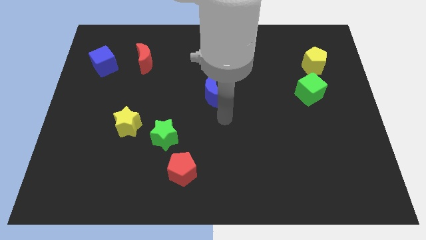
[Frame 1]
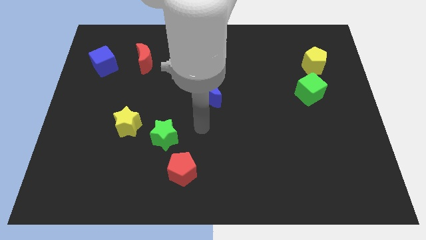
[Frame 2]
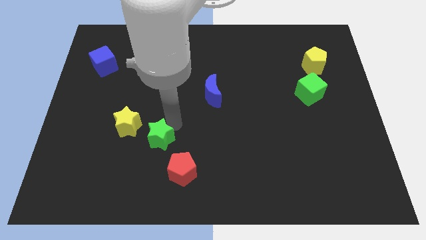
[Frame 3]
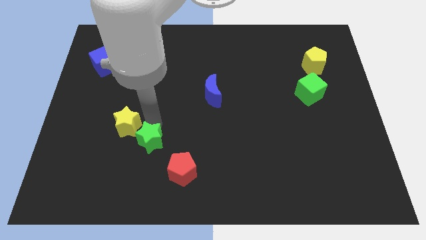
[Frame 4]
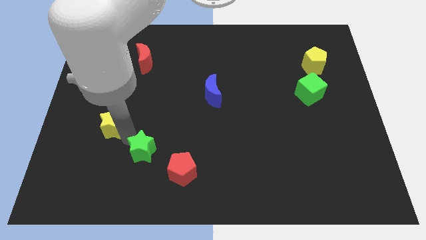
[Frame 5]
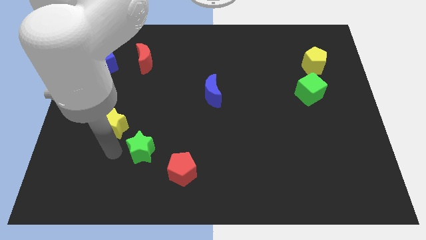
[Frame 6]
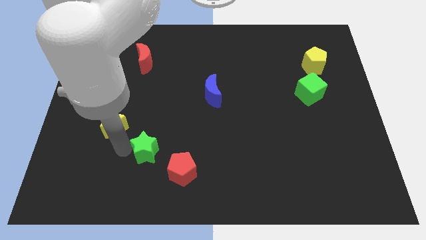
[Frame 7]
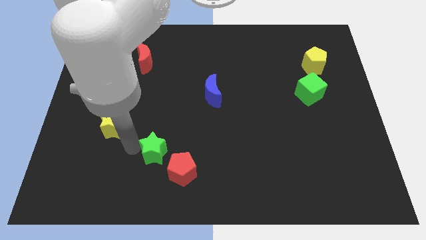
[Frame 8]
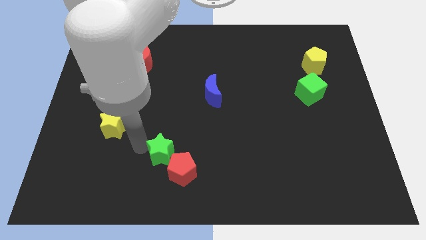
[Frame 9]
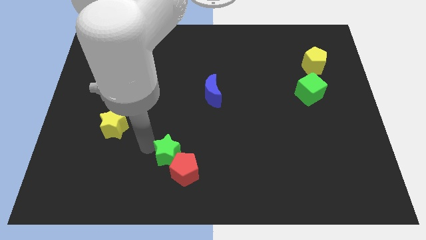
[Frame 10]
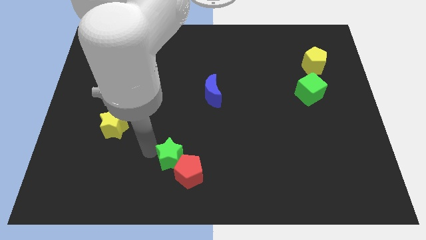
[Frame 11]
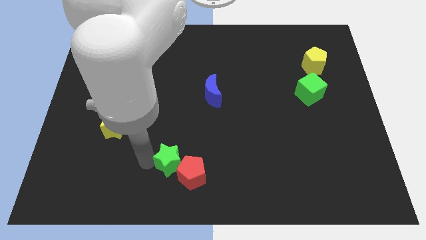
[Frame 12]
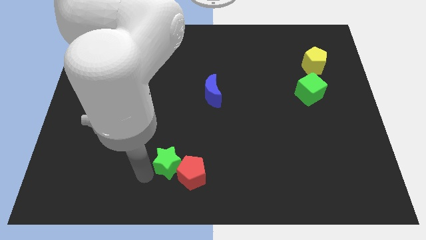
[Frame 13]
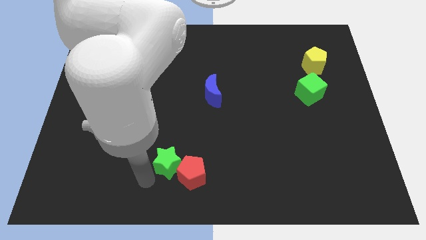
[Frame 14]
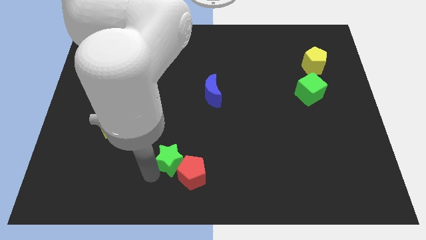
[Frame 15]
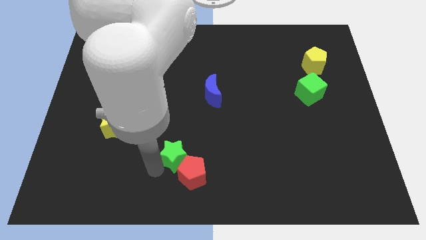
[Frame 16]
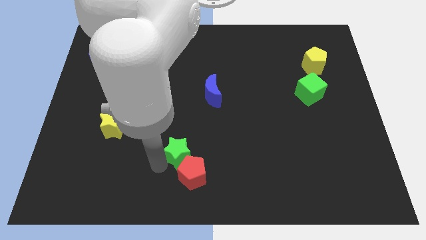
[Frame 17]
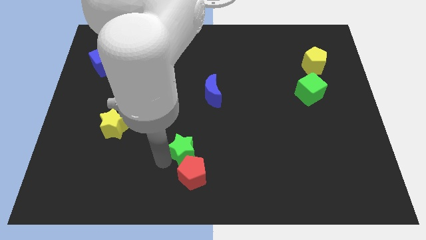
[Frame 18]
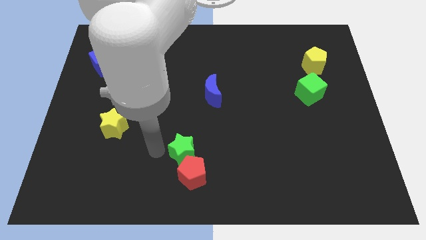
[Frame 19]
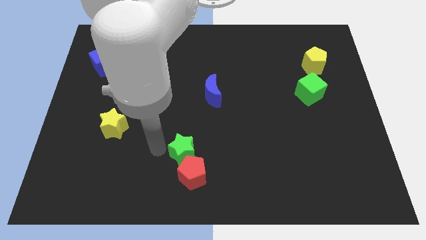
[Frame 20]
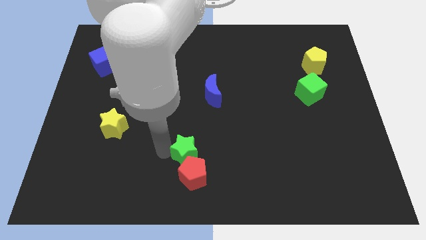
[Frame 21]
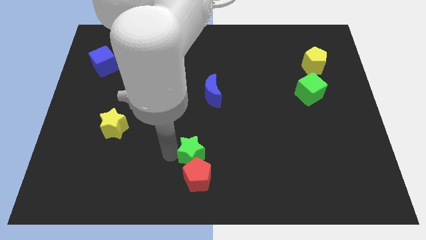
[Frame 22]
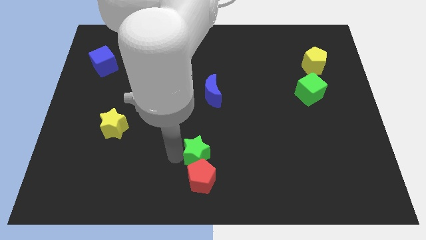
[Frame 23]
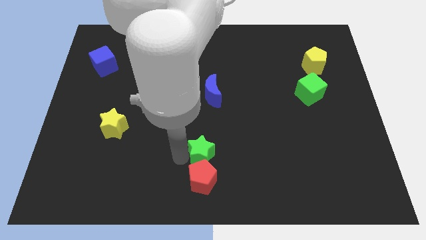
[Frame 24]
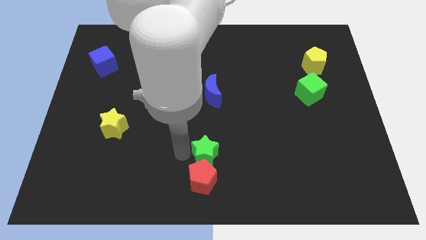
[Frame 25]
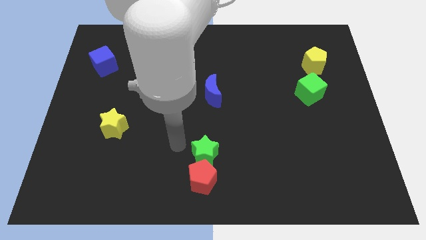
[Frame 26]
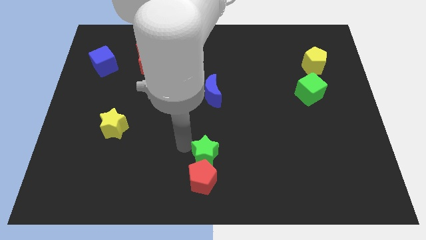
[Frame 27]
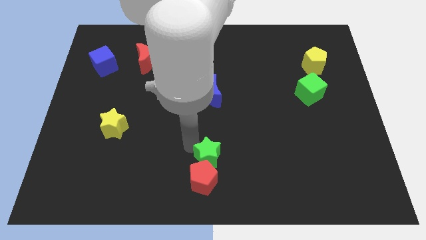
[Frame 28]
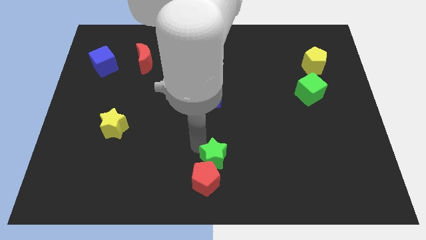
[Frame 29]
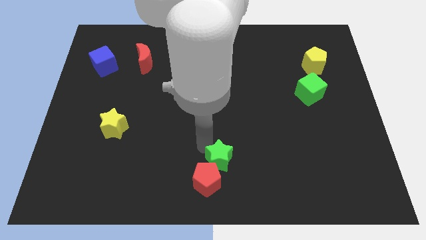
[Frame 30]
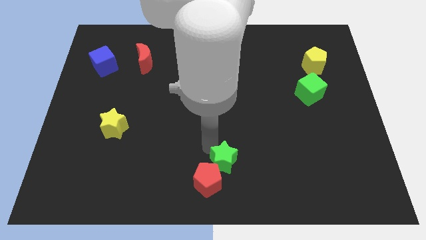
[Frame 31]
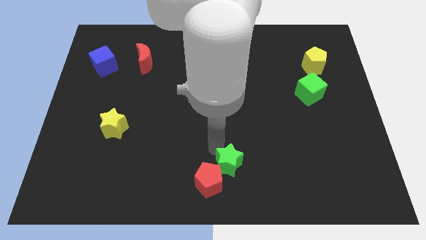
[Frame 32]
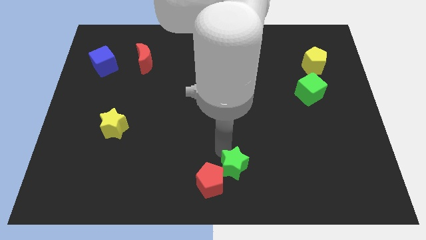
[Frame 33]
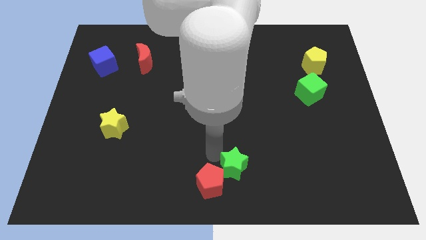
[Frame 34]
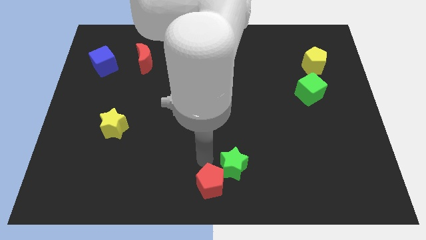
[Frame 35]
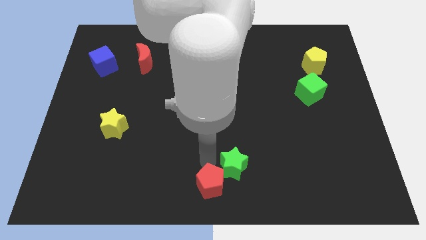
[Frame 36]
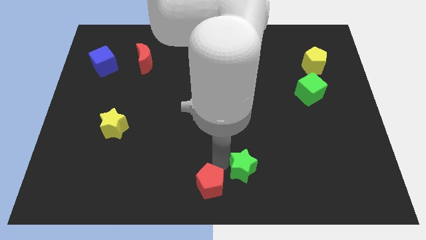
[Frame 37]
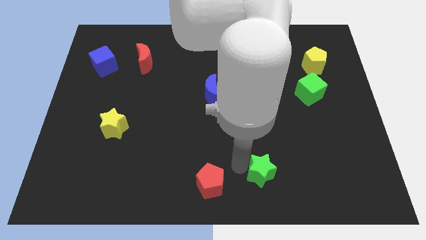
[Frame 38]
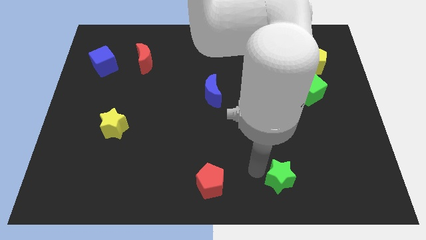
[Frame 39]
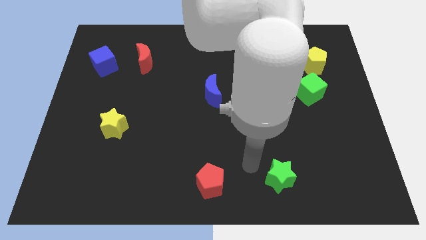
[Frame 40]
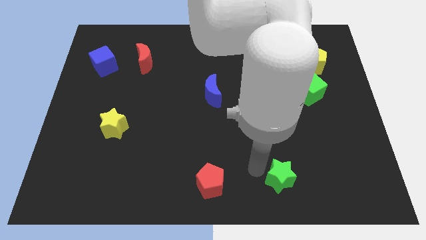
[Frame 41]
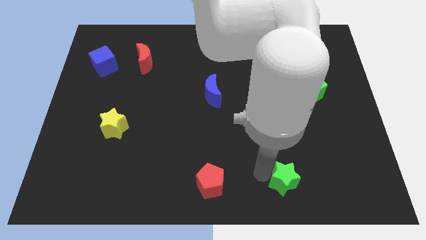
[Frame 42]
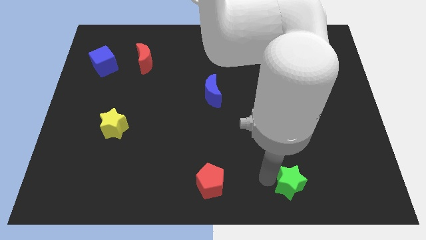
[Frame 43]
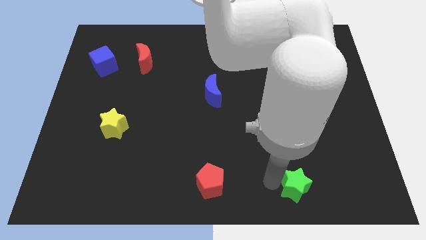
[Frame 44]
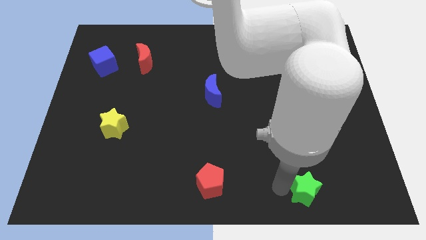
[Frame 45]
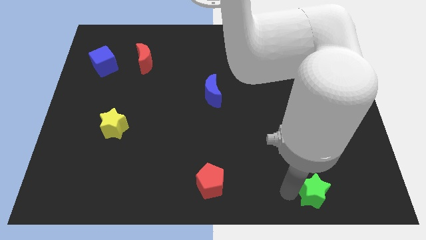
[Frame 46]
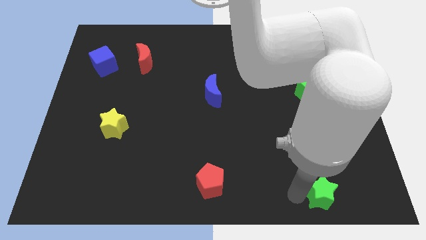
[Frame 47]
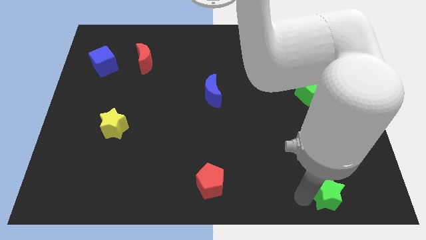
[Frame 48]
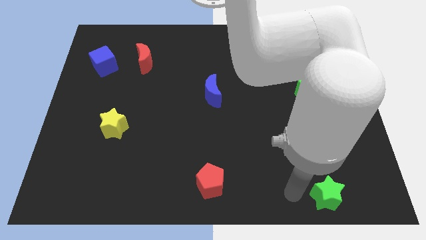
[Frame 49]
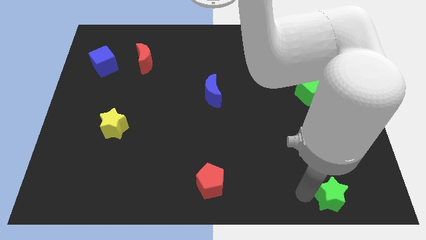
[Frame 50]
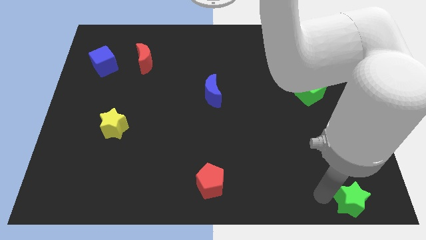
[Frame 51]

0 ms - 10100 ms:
slide the green star to the bottom right corner

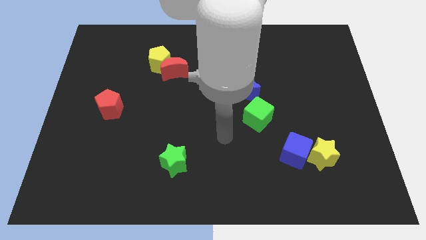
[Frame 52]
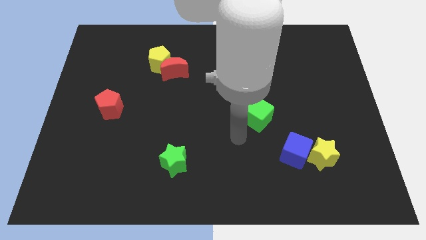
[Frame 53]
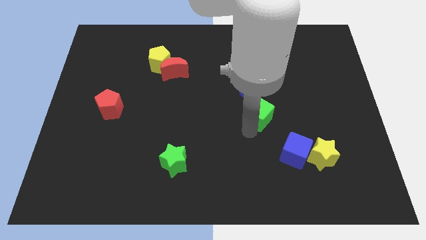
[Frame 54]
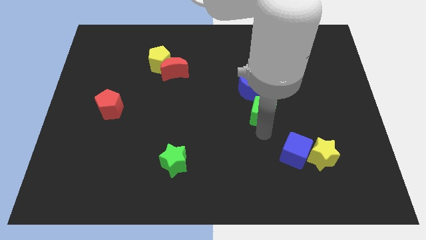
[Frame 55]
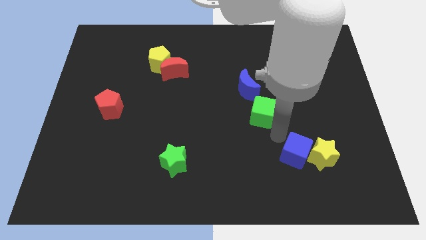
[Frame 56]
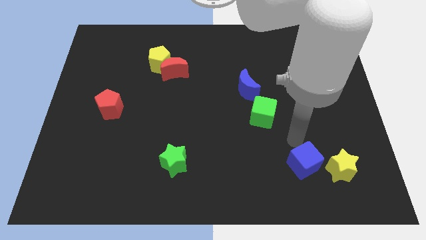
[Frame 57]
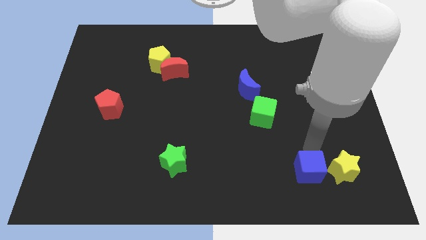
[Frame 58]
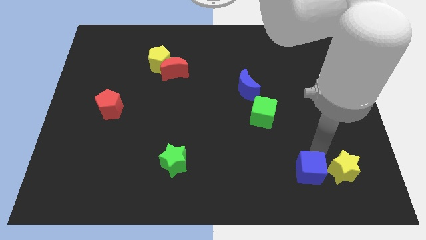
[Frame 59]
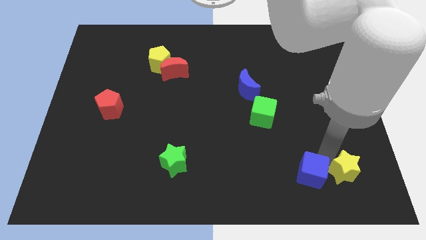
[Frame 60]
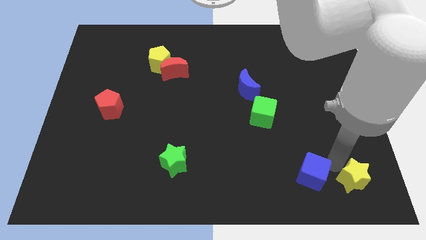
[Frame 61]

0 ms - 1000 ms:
put the yellow star to the bottom right corner

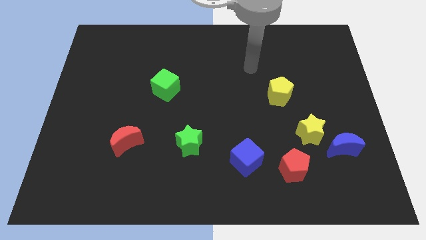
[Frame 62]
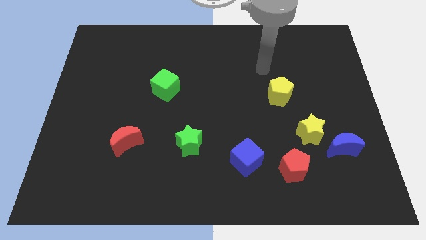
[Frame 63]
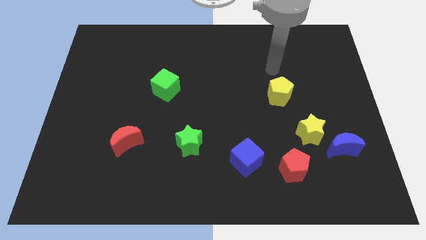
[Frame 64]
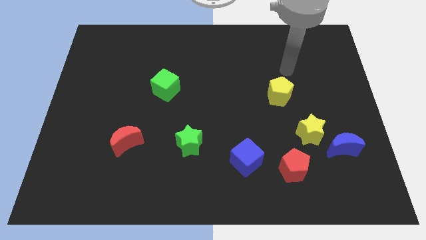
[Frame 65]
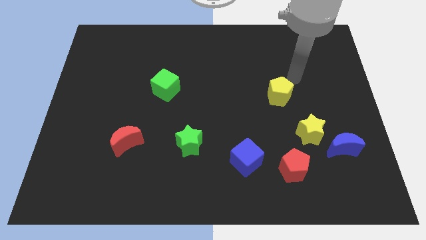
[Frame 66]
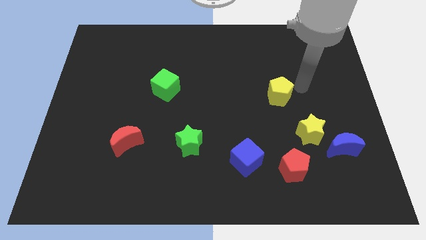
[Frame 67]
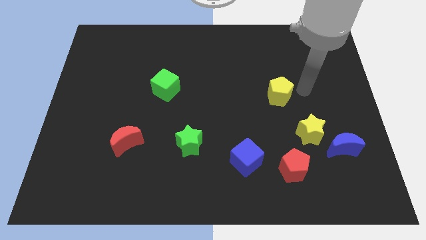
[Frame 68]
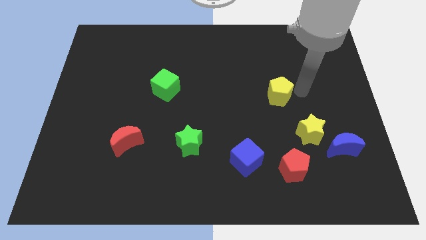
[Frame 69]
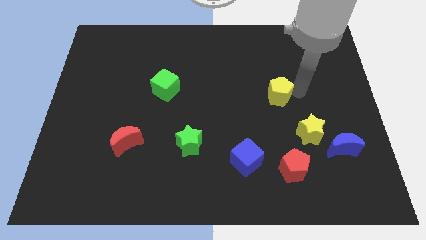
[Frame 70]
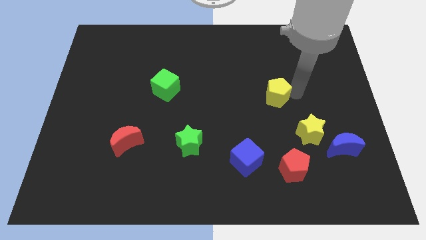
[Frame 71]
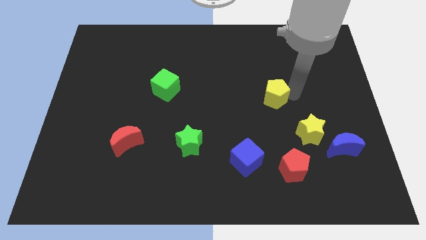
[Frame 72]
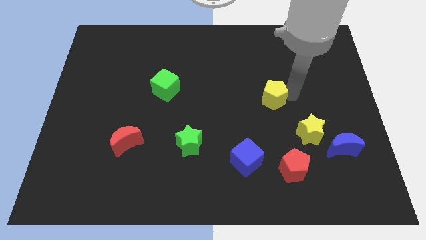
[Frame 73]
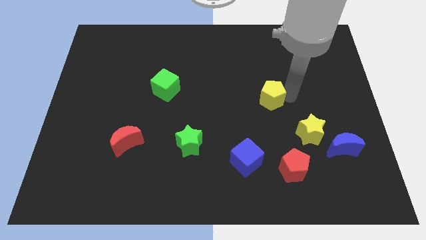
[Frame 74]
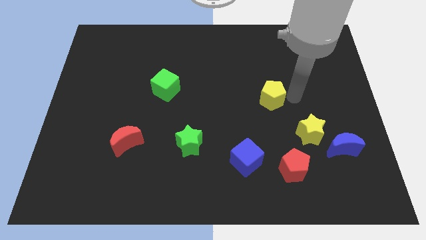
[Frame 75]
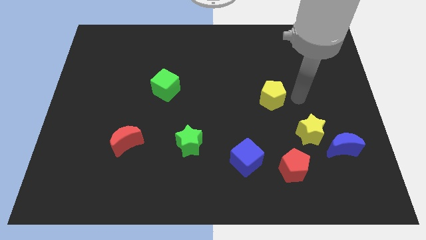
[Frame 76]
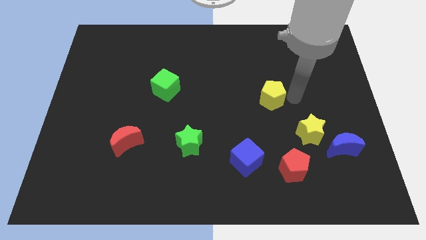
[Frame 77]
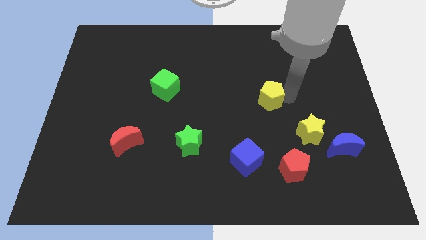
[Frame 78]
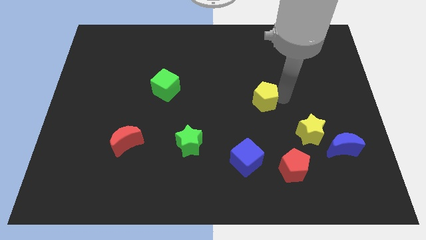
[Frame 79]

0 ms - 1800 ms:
slide the yellow pentagon to the center
